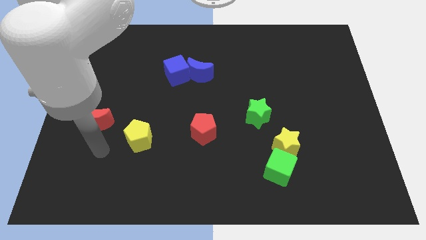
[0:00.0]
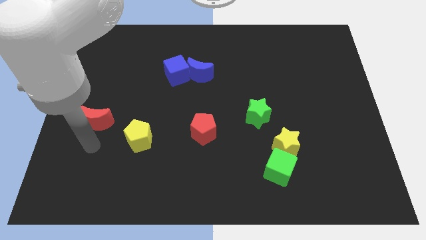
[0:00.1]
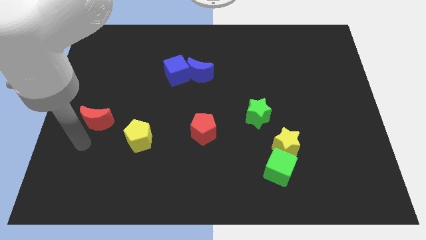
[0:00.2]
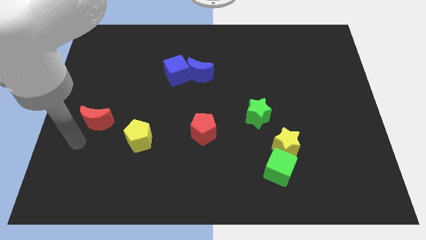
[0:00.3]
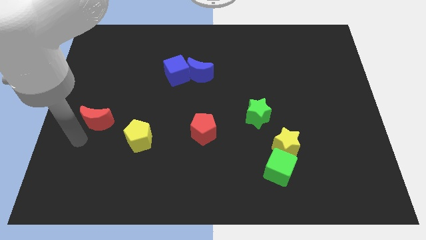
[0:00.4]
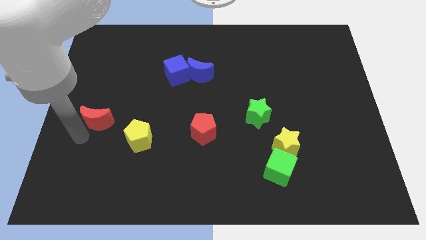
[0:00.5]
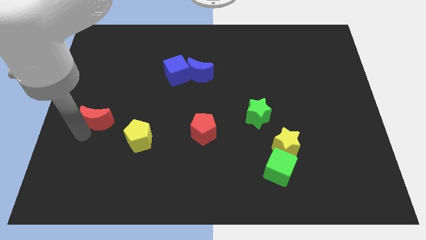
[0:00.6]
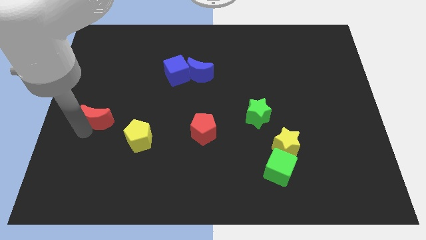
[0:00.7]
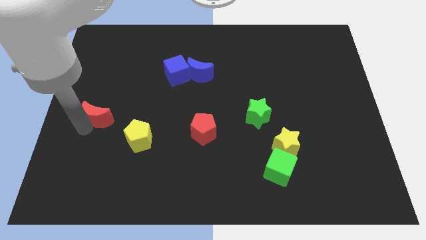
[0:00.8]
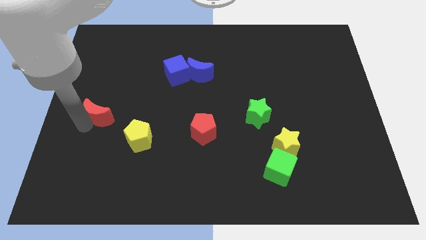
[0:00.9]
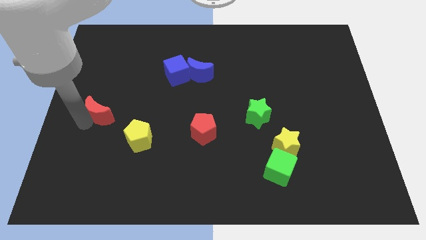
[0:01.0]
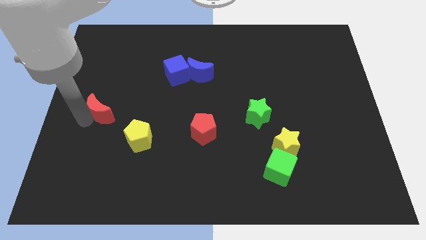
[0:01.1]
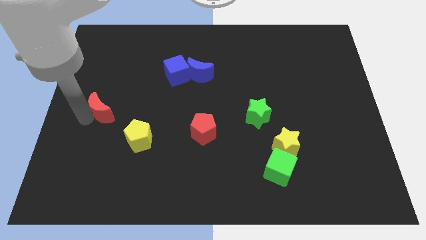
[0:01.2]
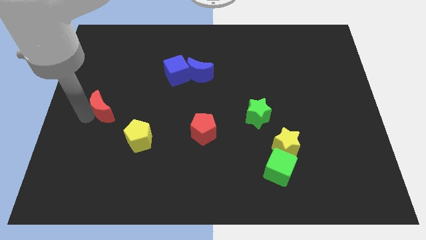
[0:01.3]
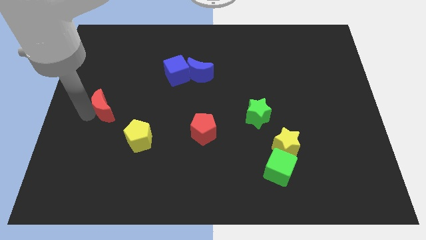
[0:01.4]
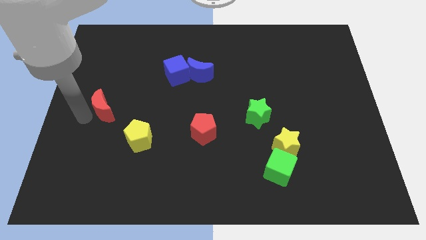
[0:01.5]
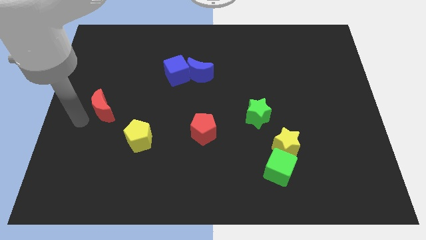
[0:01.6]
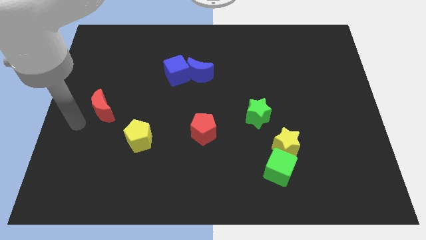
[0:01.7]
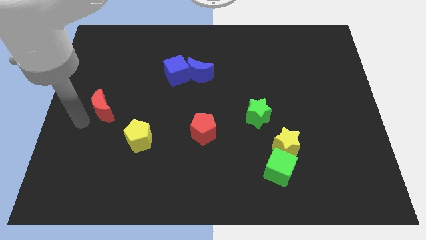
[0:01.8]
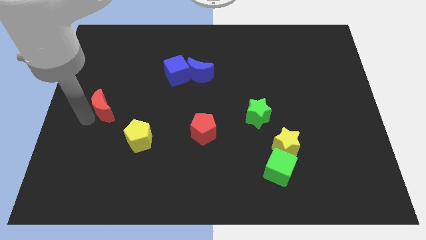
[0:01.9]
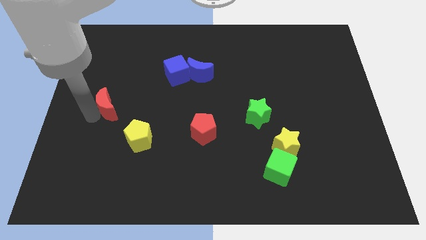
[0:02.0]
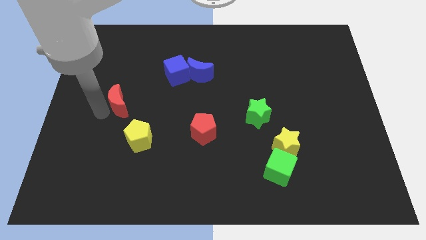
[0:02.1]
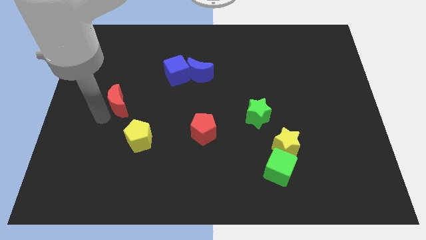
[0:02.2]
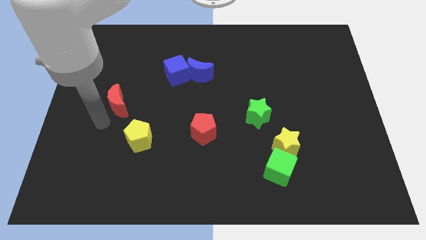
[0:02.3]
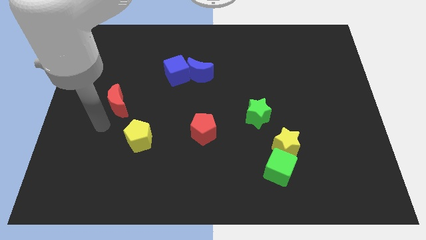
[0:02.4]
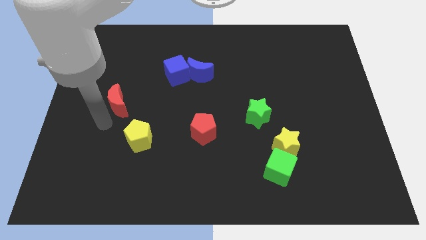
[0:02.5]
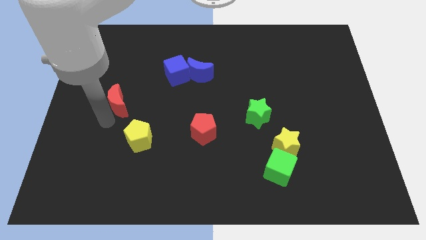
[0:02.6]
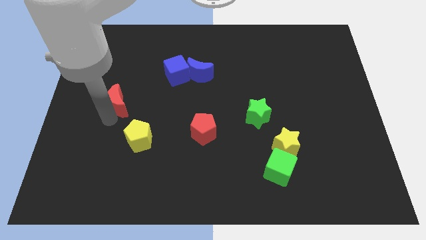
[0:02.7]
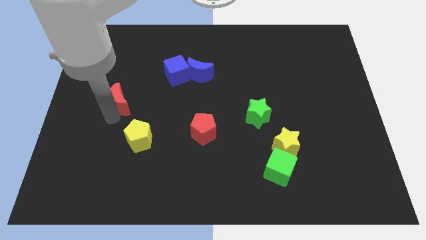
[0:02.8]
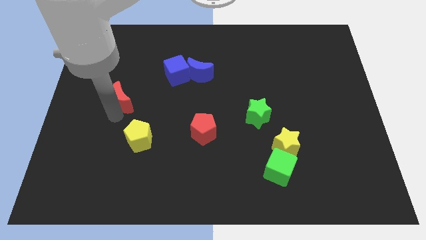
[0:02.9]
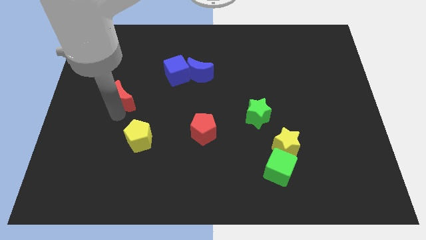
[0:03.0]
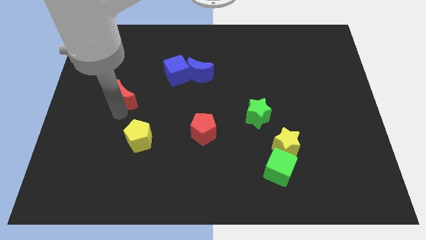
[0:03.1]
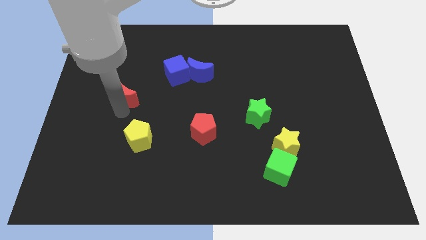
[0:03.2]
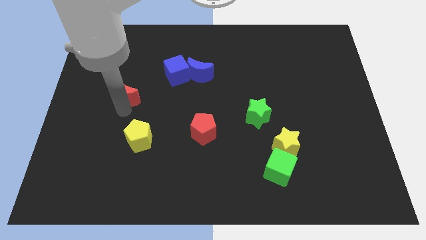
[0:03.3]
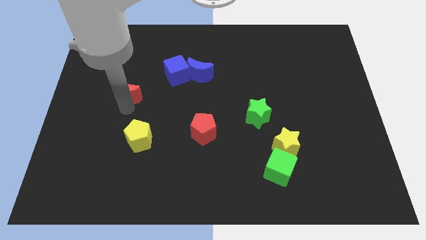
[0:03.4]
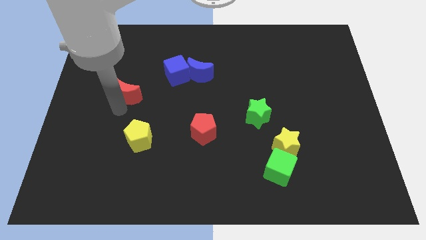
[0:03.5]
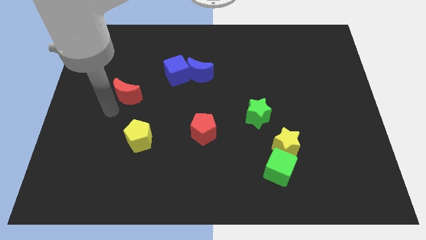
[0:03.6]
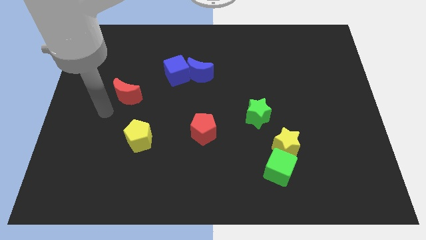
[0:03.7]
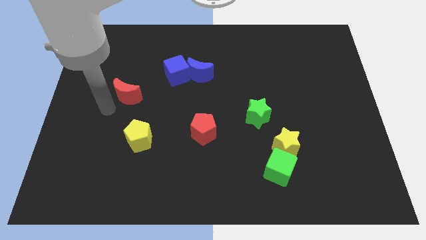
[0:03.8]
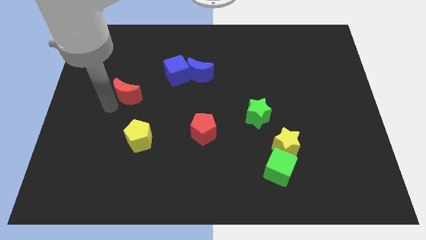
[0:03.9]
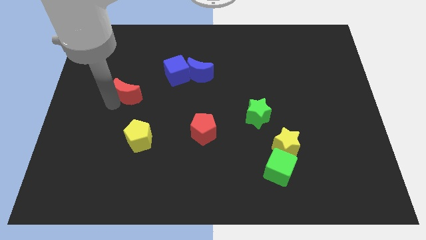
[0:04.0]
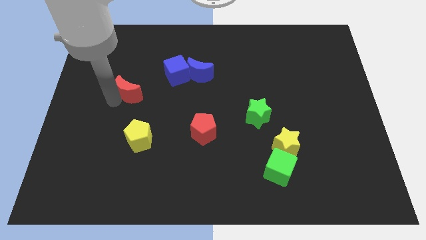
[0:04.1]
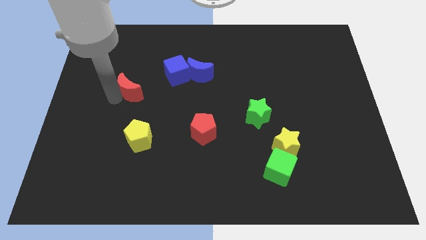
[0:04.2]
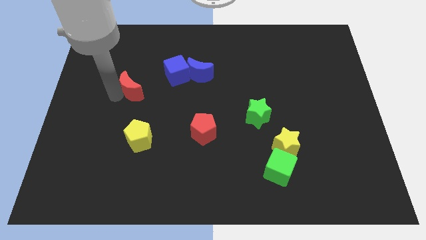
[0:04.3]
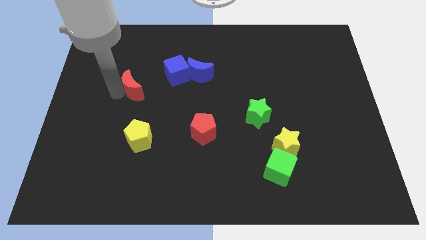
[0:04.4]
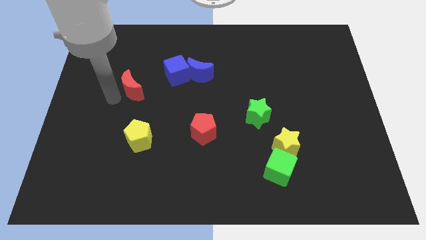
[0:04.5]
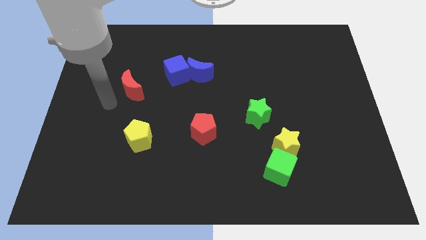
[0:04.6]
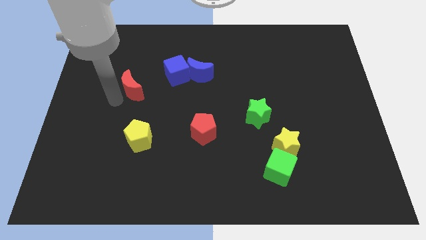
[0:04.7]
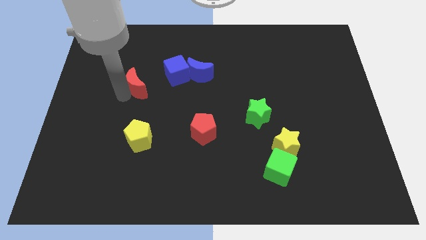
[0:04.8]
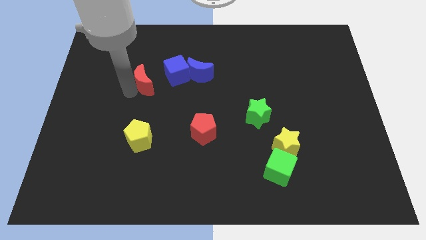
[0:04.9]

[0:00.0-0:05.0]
put the red moon left of the blue moon

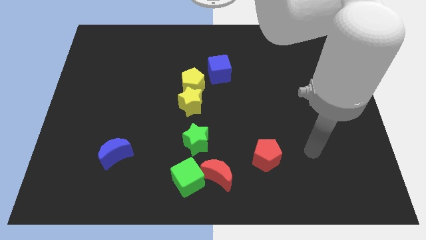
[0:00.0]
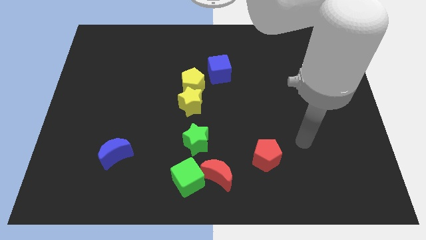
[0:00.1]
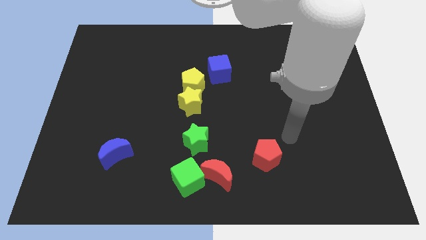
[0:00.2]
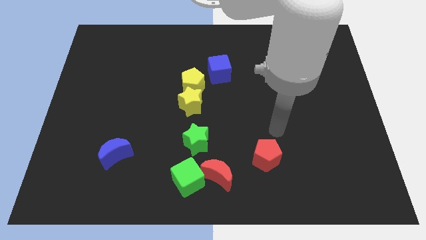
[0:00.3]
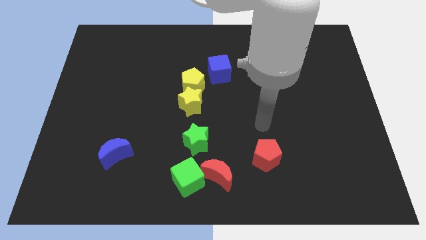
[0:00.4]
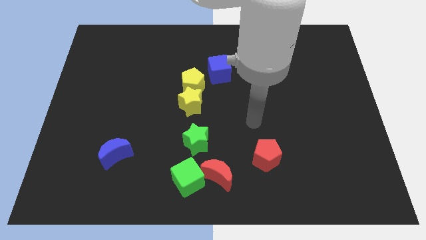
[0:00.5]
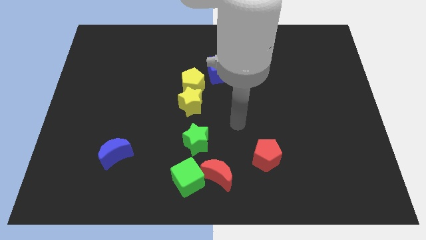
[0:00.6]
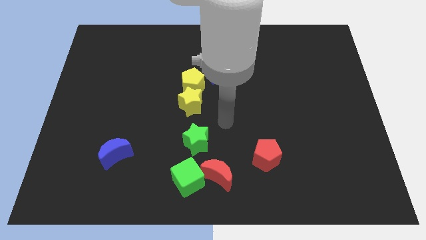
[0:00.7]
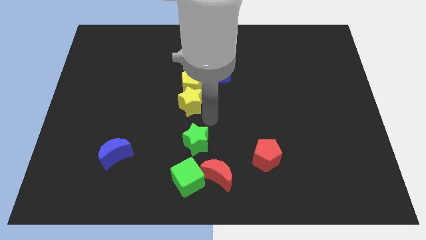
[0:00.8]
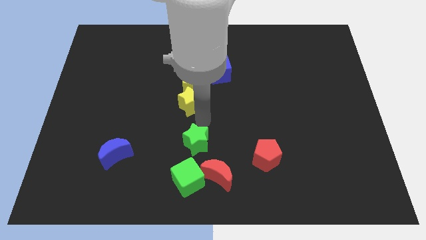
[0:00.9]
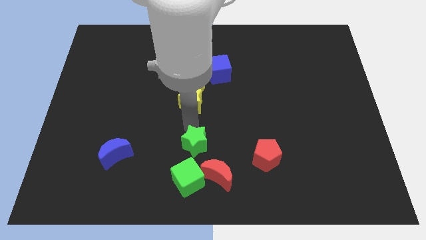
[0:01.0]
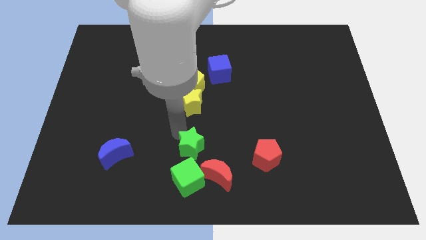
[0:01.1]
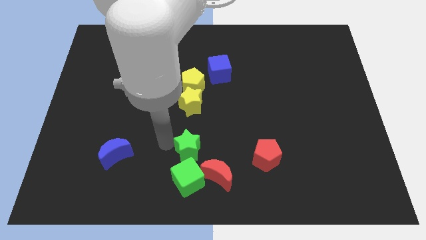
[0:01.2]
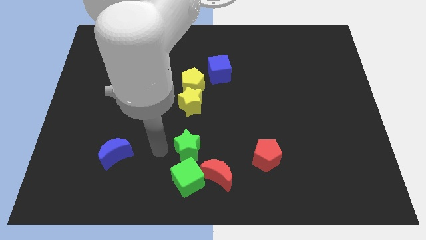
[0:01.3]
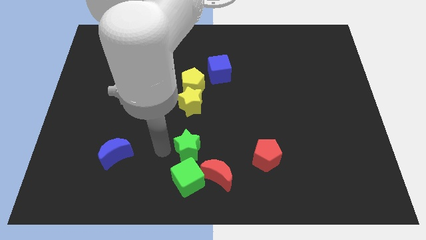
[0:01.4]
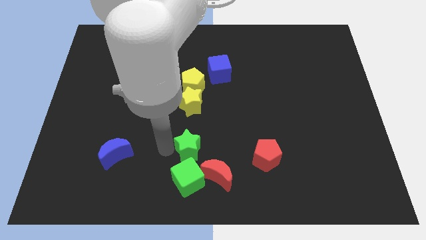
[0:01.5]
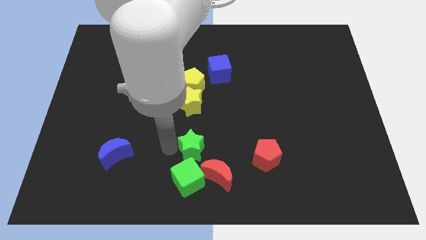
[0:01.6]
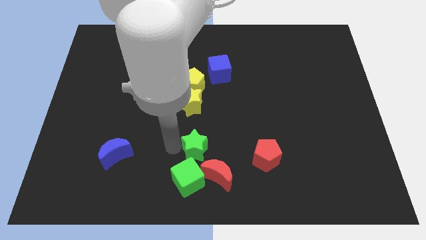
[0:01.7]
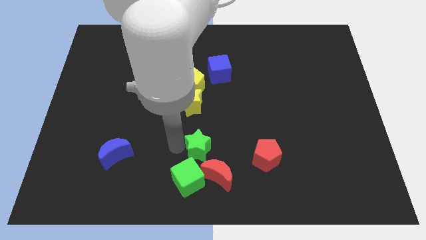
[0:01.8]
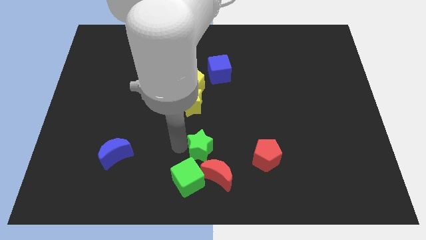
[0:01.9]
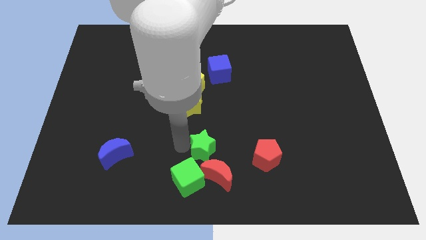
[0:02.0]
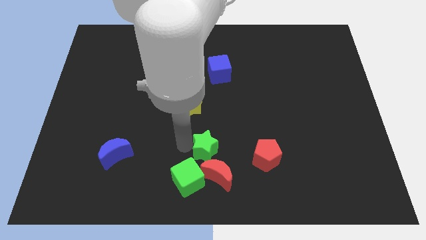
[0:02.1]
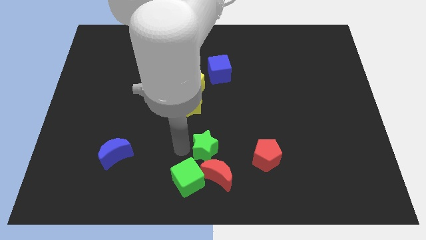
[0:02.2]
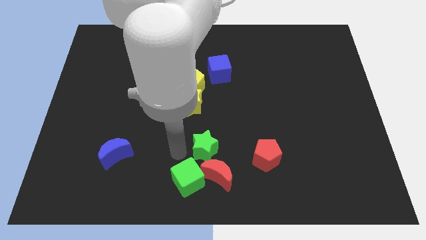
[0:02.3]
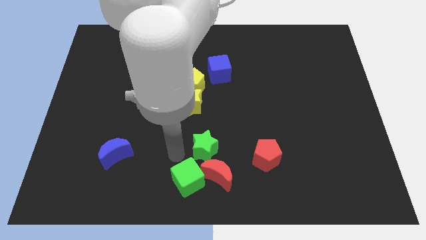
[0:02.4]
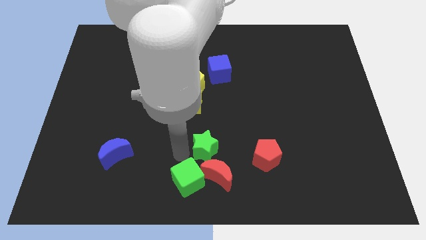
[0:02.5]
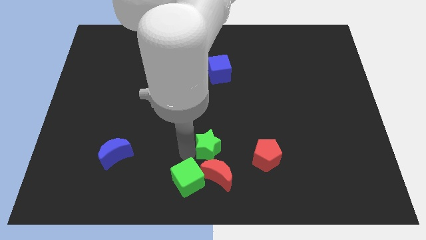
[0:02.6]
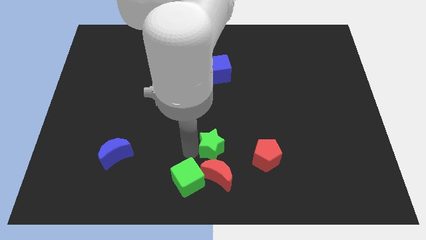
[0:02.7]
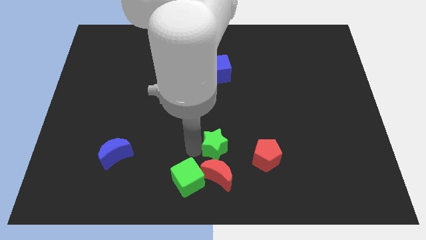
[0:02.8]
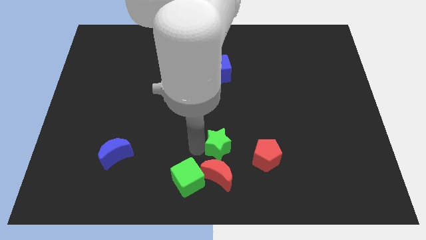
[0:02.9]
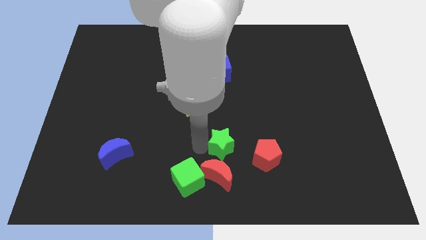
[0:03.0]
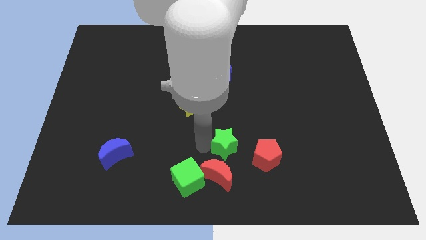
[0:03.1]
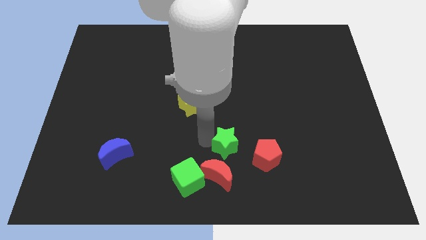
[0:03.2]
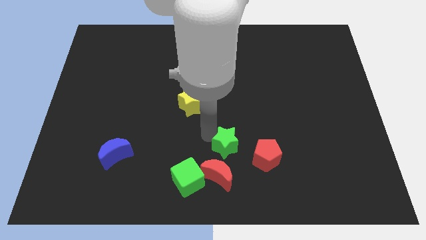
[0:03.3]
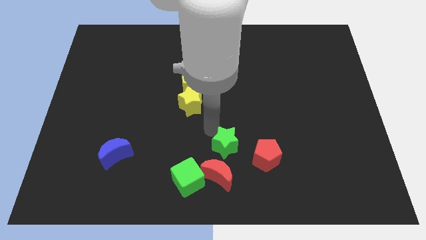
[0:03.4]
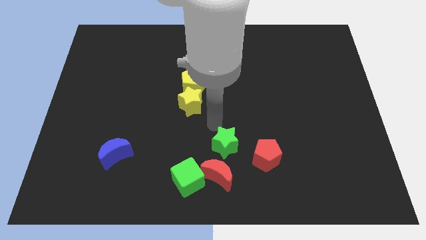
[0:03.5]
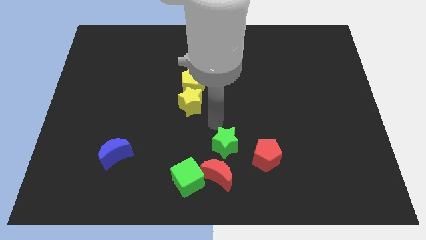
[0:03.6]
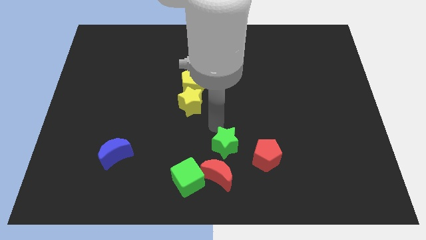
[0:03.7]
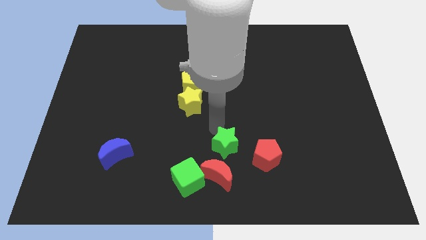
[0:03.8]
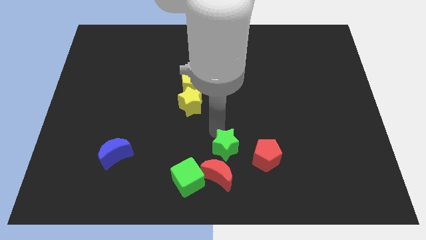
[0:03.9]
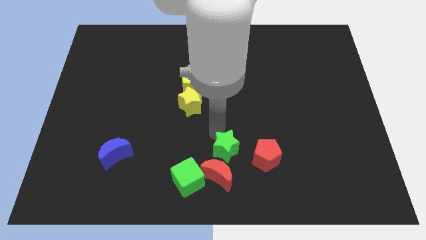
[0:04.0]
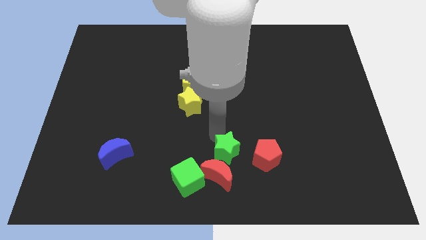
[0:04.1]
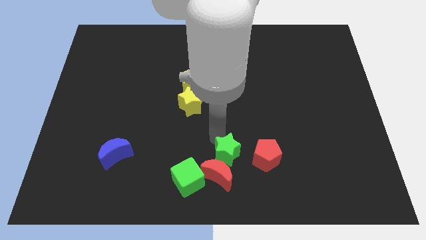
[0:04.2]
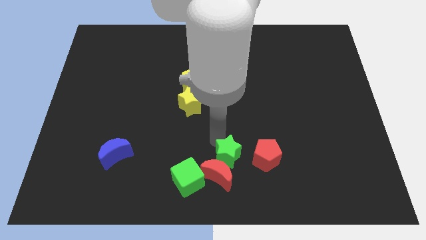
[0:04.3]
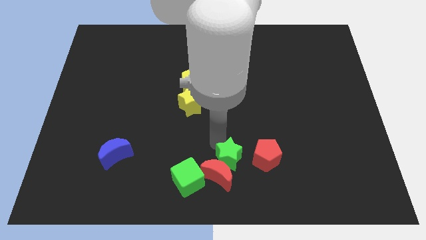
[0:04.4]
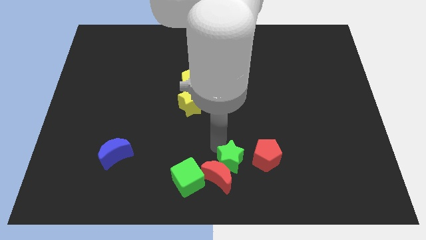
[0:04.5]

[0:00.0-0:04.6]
move the green star to the bottom left of the red pentagon
